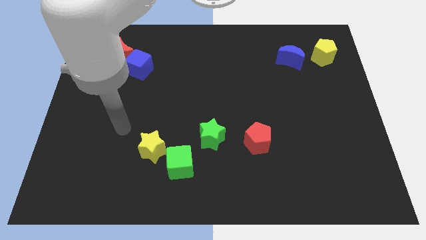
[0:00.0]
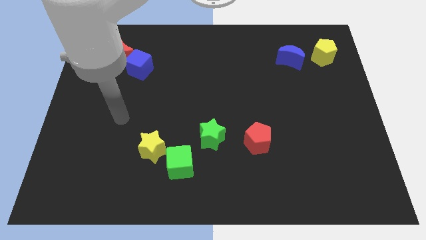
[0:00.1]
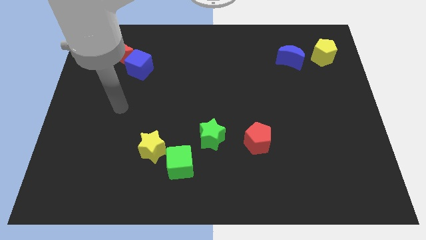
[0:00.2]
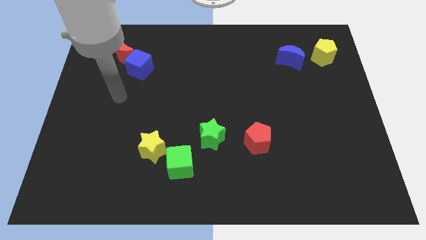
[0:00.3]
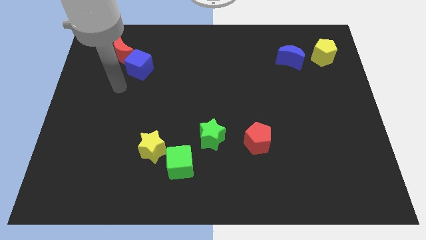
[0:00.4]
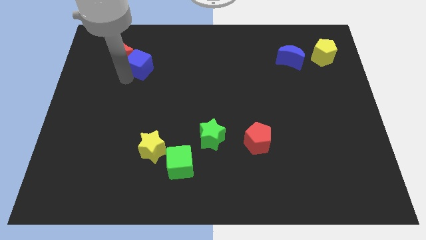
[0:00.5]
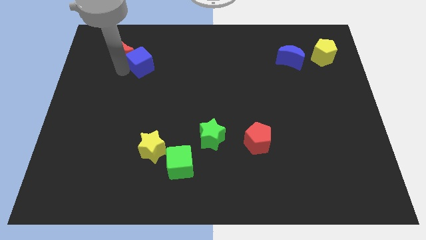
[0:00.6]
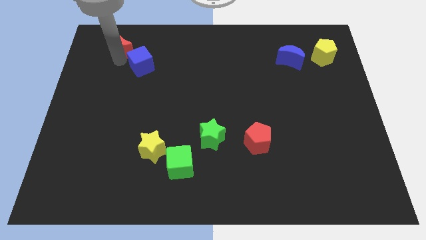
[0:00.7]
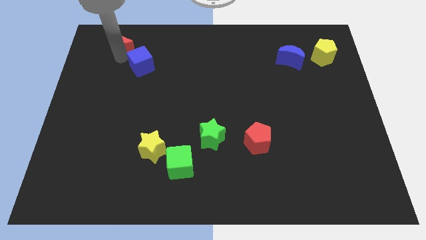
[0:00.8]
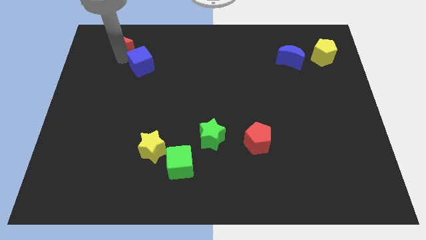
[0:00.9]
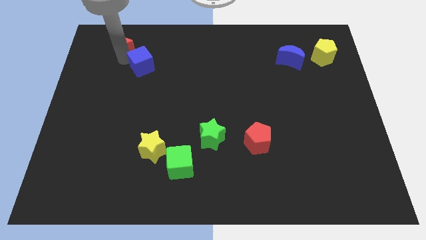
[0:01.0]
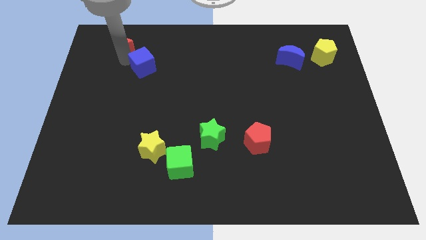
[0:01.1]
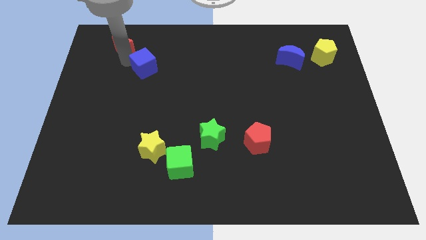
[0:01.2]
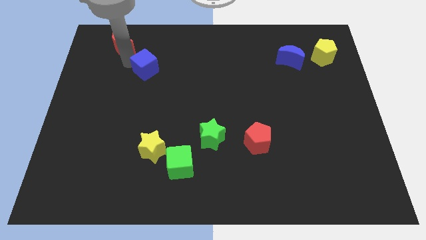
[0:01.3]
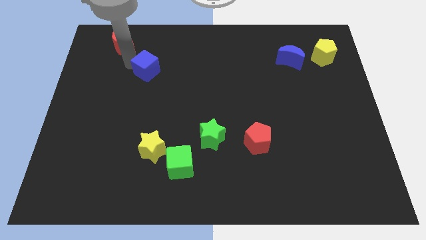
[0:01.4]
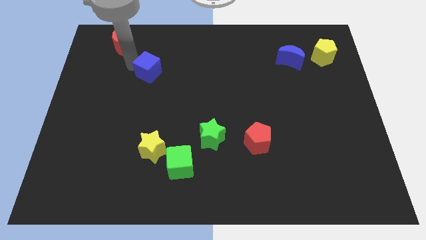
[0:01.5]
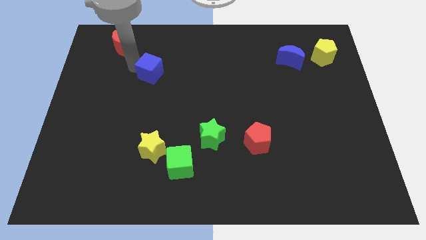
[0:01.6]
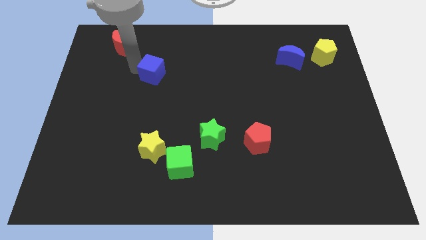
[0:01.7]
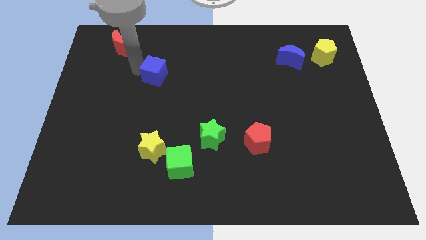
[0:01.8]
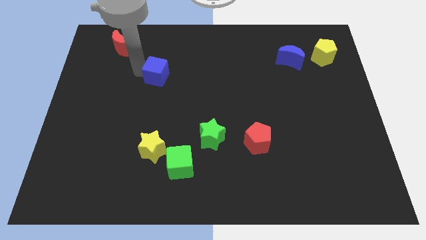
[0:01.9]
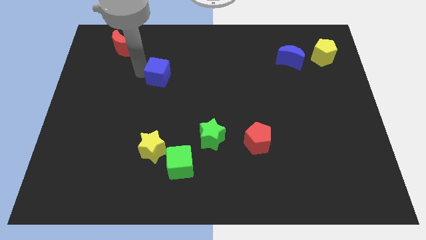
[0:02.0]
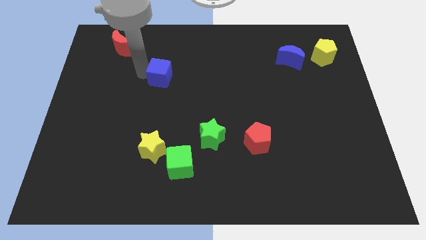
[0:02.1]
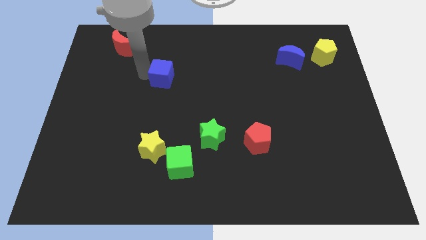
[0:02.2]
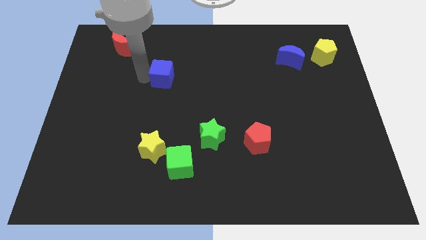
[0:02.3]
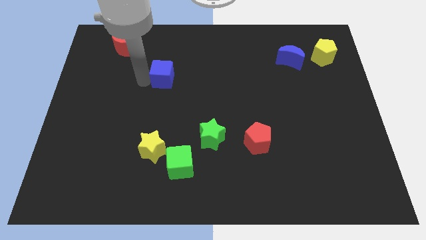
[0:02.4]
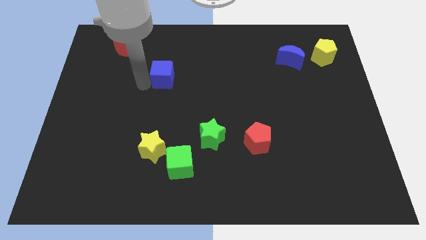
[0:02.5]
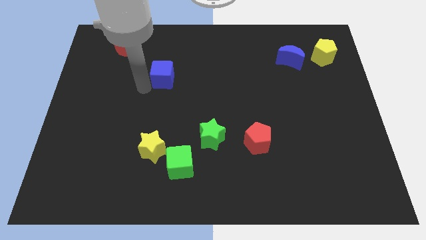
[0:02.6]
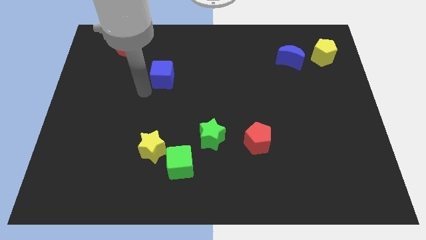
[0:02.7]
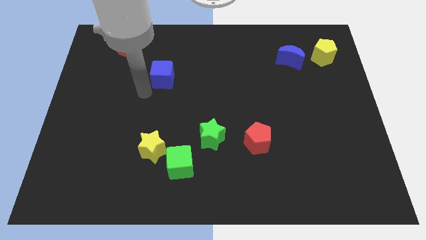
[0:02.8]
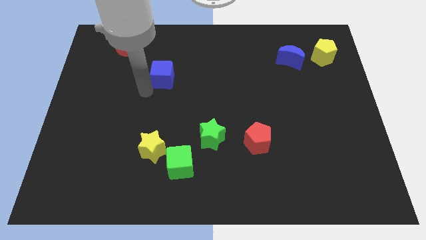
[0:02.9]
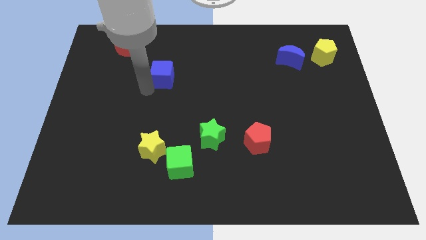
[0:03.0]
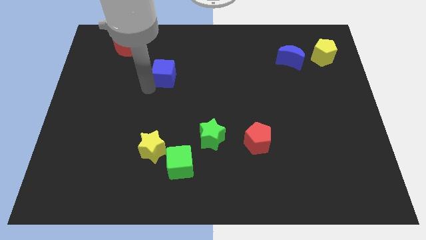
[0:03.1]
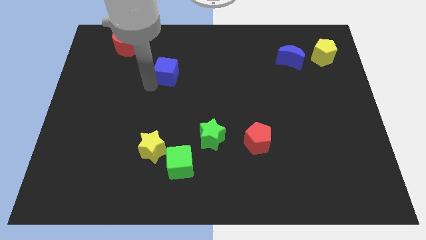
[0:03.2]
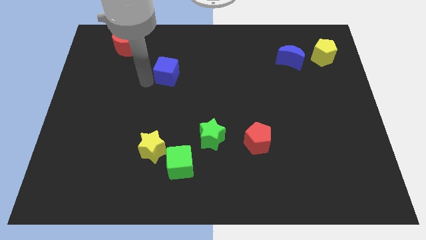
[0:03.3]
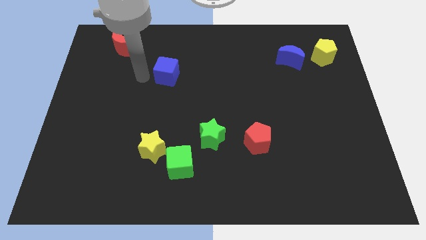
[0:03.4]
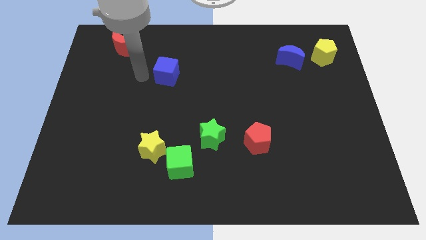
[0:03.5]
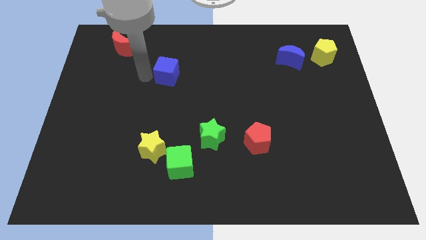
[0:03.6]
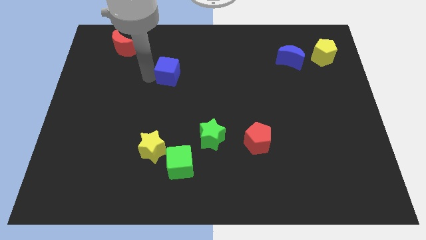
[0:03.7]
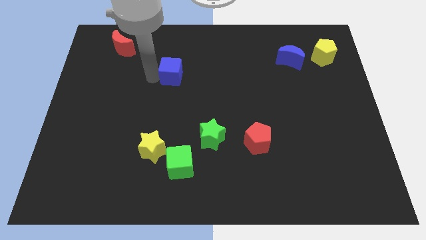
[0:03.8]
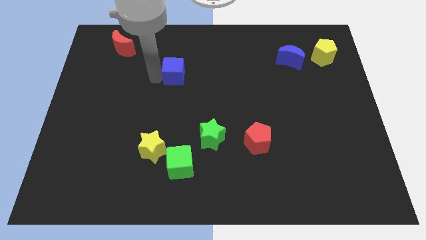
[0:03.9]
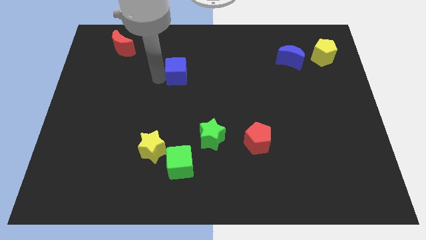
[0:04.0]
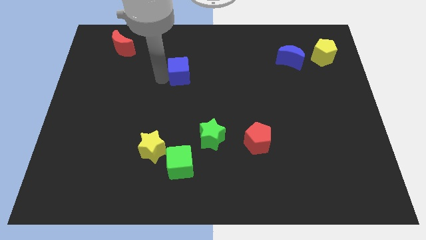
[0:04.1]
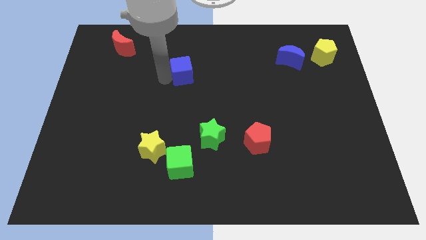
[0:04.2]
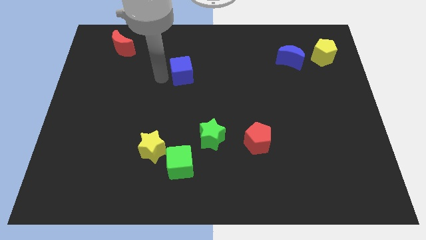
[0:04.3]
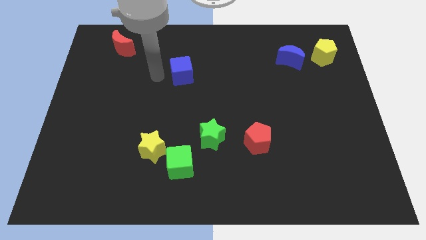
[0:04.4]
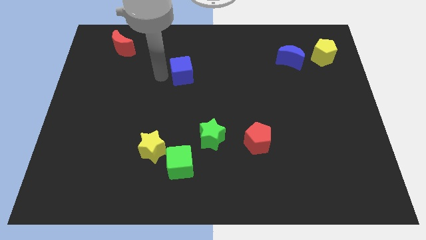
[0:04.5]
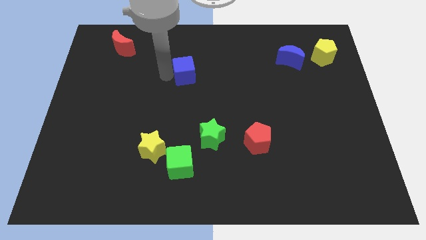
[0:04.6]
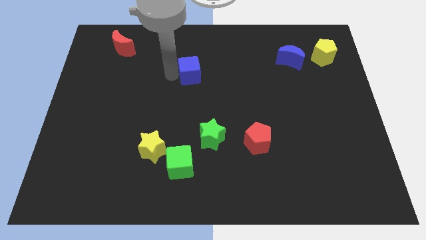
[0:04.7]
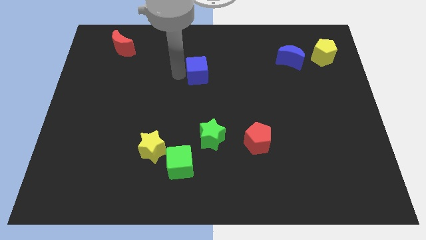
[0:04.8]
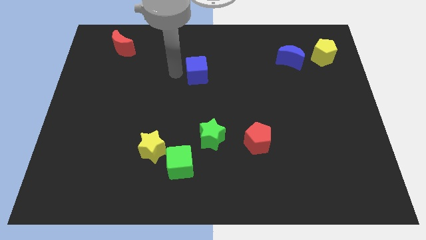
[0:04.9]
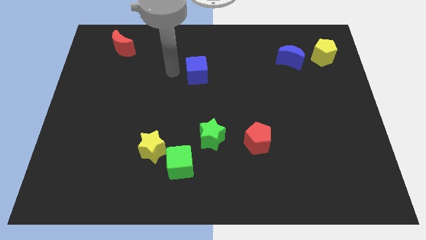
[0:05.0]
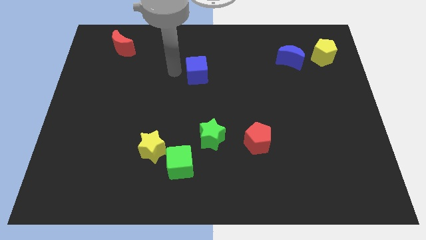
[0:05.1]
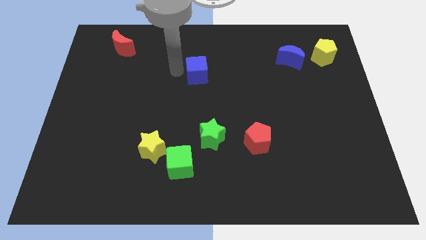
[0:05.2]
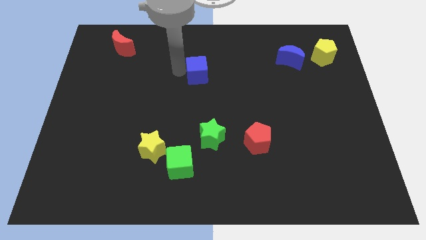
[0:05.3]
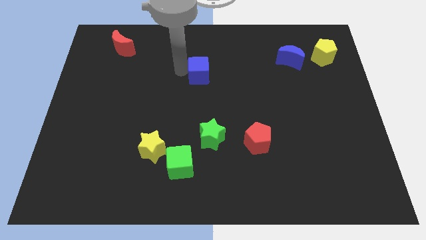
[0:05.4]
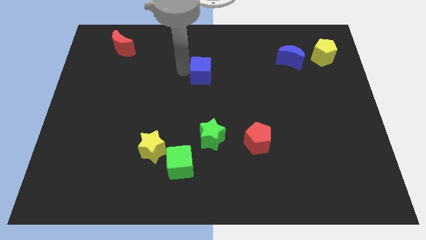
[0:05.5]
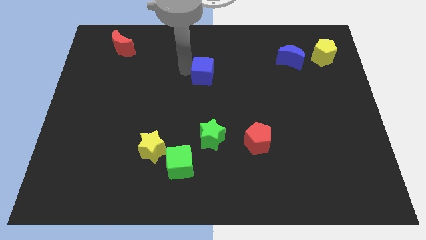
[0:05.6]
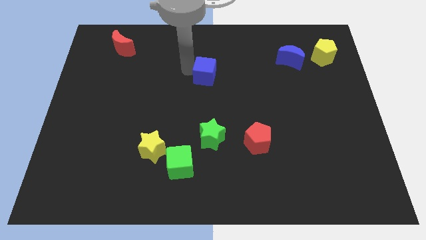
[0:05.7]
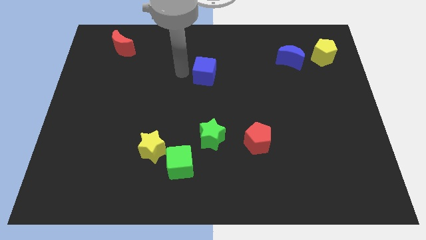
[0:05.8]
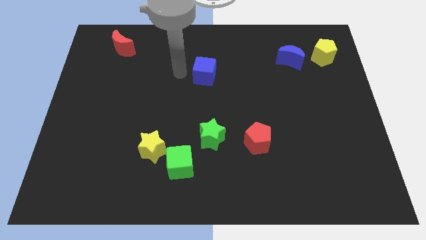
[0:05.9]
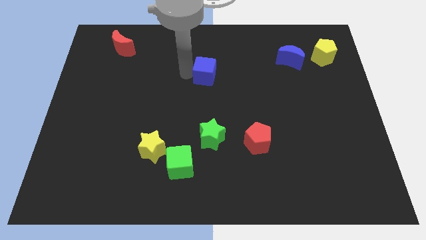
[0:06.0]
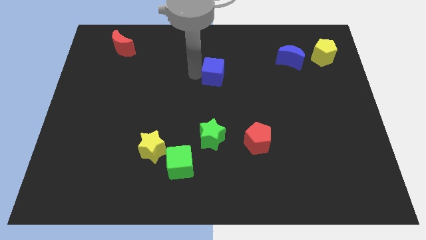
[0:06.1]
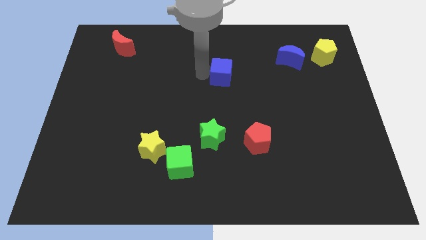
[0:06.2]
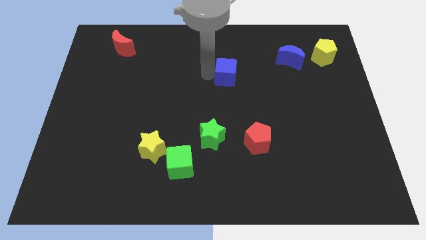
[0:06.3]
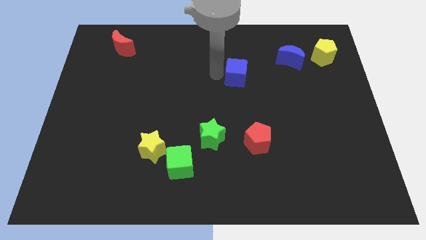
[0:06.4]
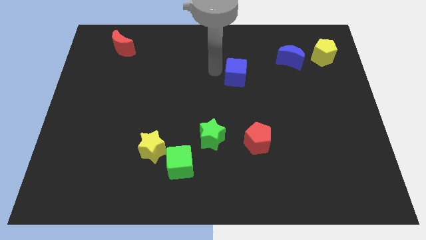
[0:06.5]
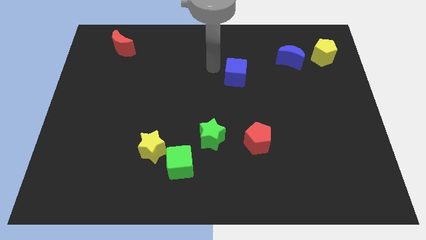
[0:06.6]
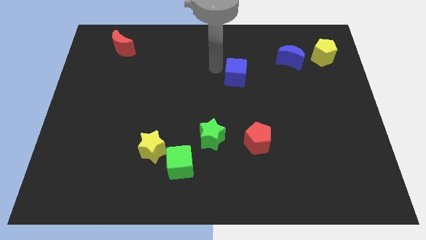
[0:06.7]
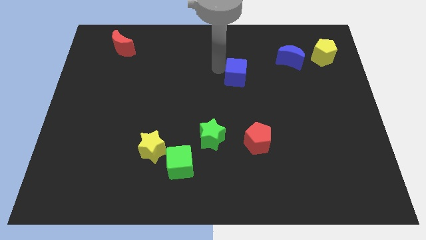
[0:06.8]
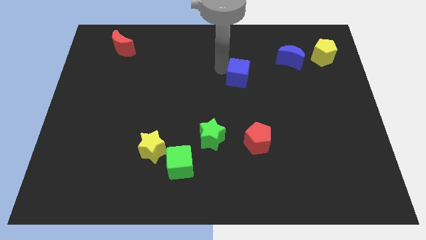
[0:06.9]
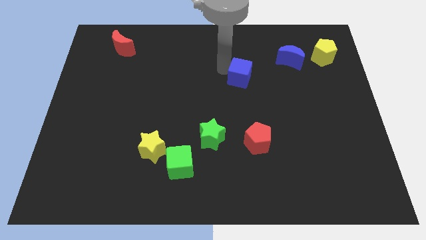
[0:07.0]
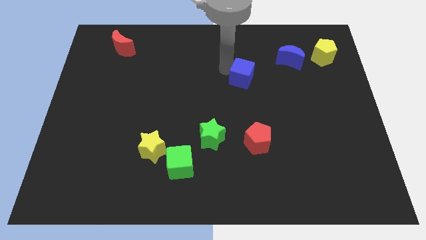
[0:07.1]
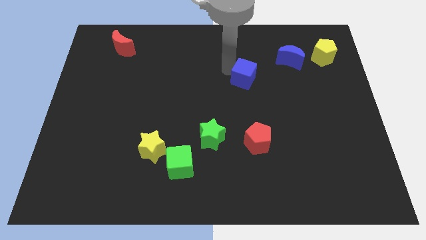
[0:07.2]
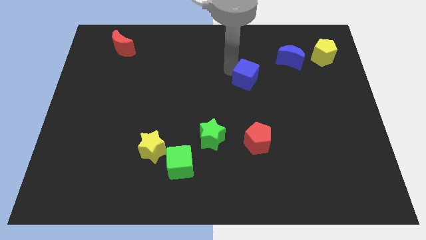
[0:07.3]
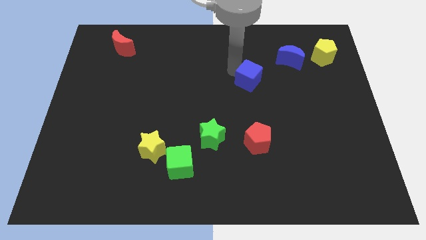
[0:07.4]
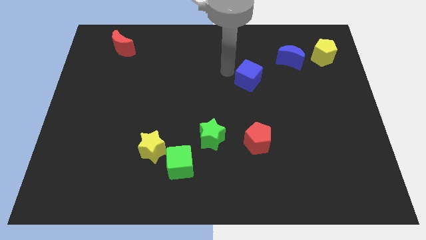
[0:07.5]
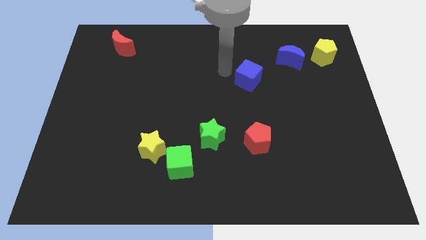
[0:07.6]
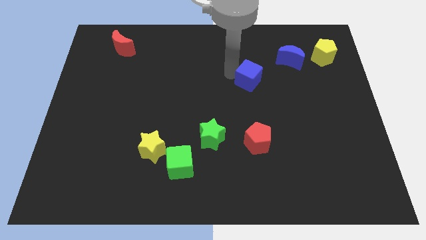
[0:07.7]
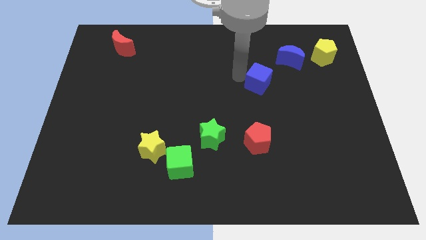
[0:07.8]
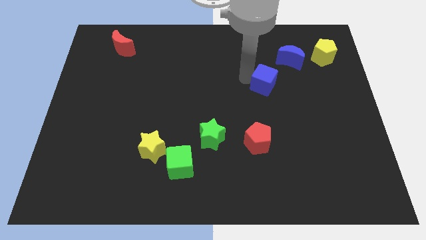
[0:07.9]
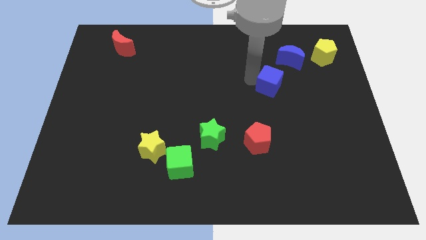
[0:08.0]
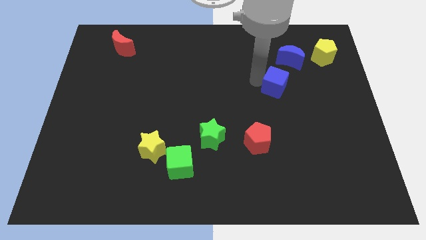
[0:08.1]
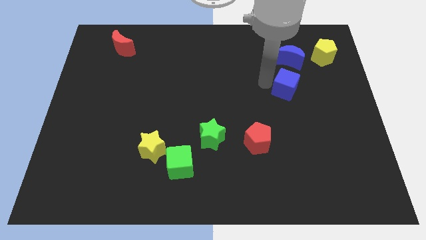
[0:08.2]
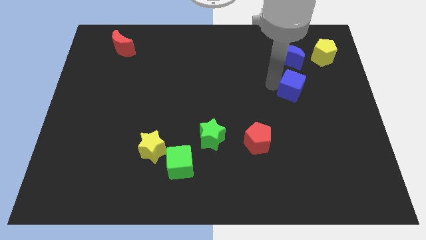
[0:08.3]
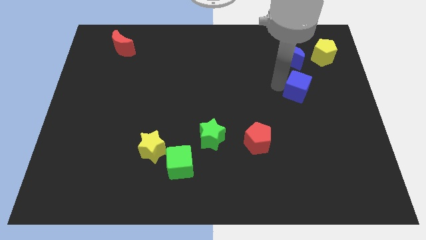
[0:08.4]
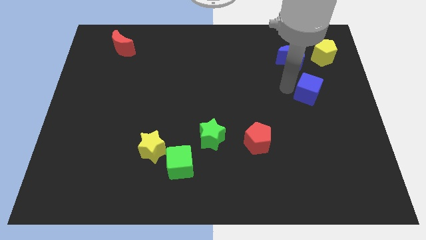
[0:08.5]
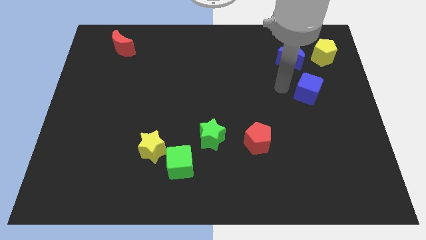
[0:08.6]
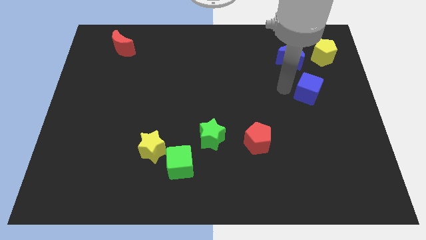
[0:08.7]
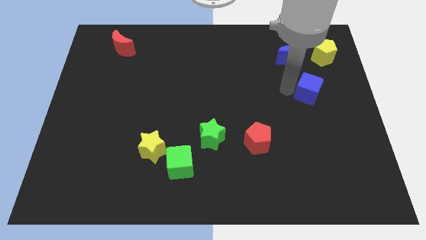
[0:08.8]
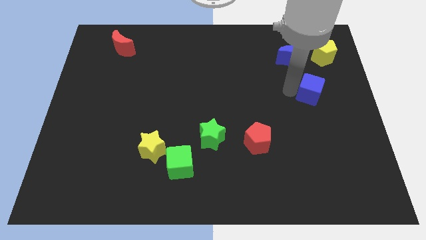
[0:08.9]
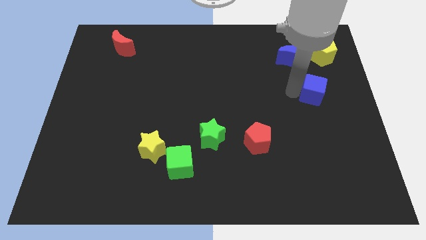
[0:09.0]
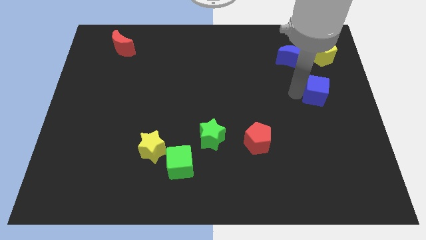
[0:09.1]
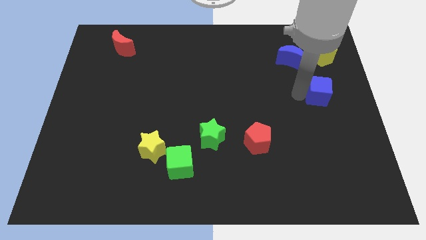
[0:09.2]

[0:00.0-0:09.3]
move the blue cube to the right side
